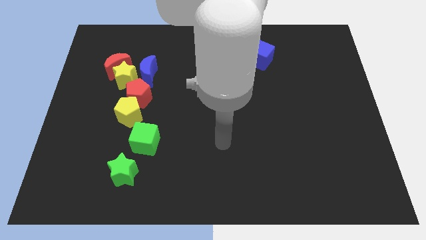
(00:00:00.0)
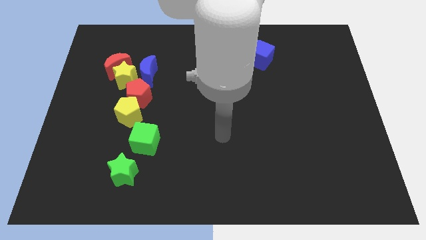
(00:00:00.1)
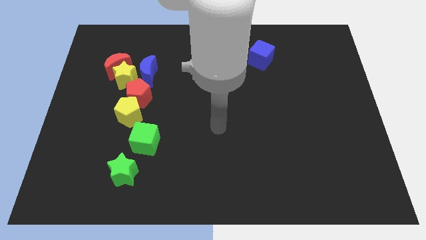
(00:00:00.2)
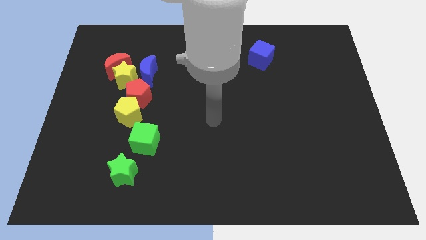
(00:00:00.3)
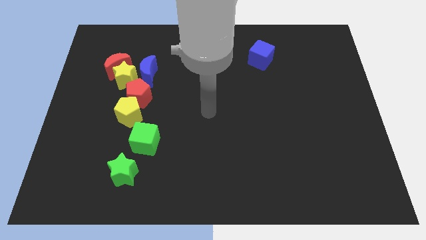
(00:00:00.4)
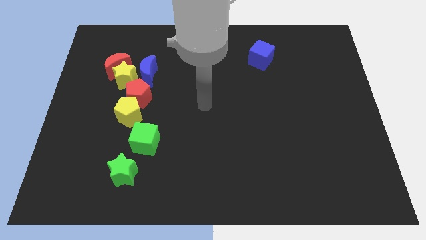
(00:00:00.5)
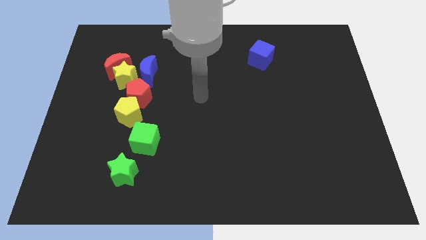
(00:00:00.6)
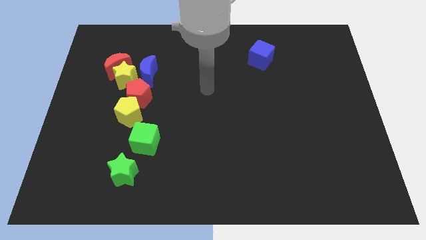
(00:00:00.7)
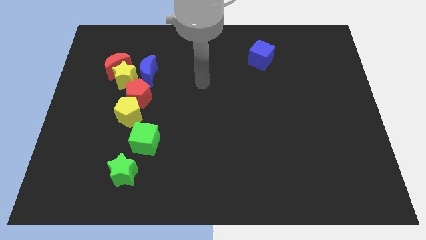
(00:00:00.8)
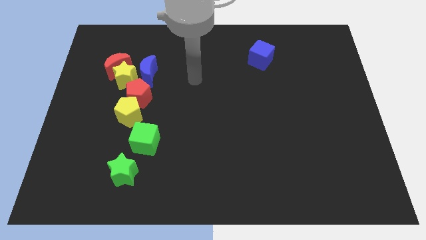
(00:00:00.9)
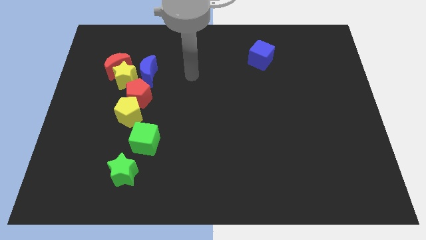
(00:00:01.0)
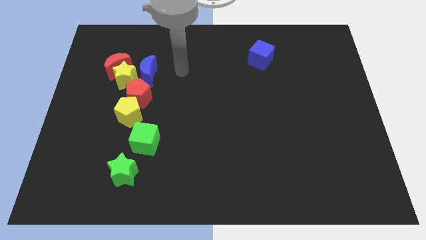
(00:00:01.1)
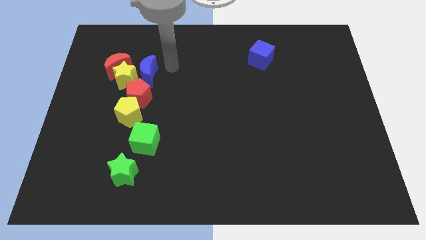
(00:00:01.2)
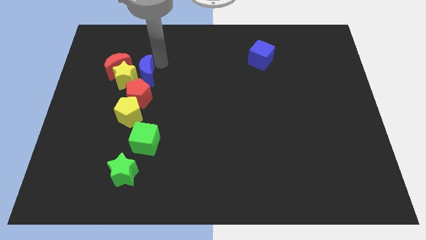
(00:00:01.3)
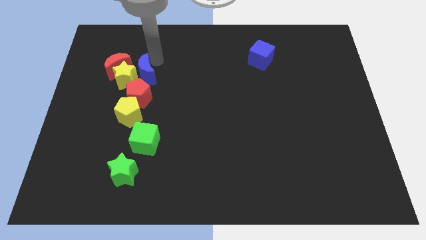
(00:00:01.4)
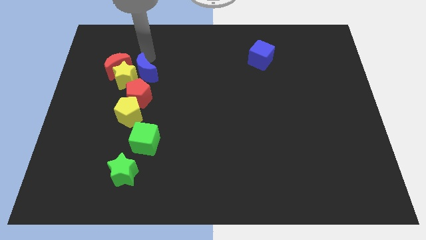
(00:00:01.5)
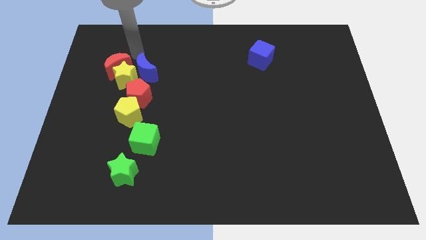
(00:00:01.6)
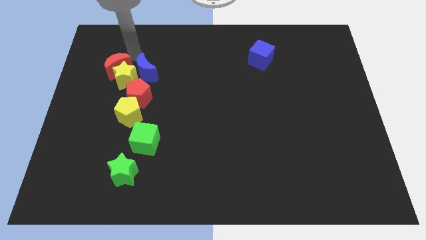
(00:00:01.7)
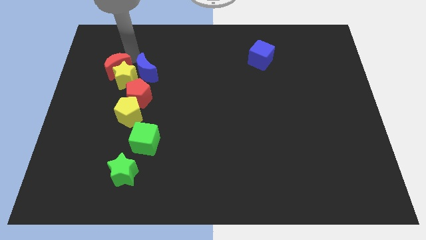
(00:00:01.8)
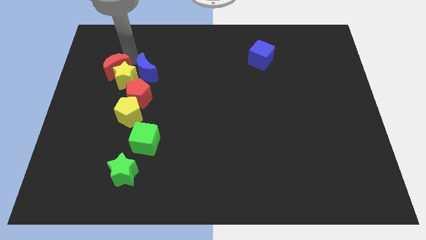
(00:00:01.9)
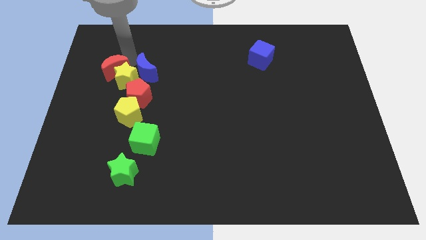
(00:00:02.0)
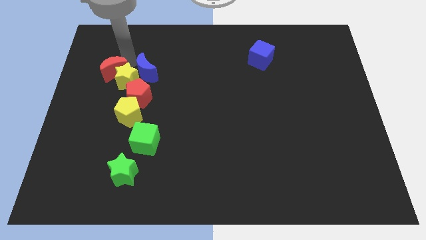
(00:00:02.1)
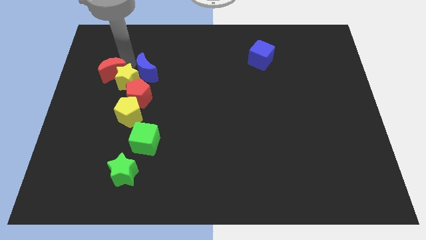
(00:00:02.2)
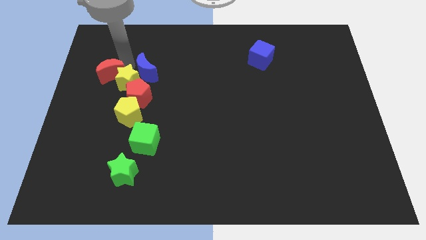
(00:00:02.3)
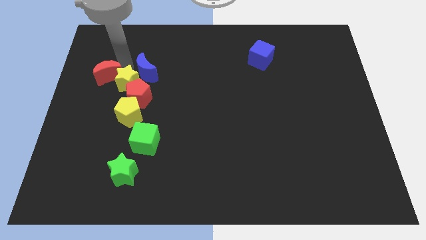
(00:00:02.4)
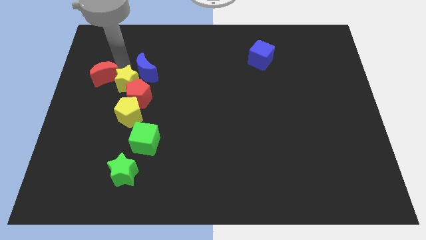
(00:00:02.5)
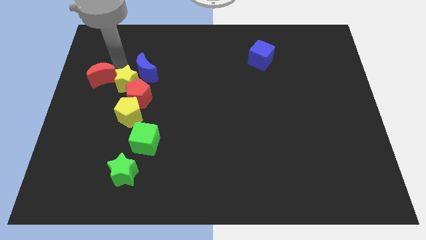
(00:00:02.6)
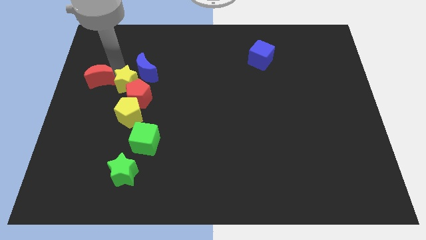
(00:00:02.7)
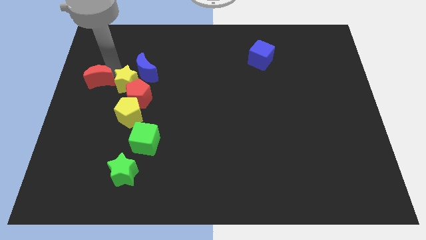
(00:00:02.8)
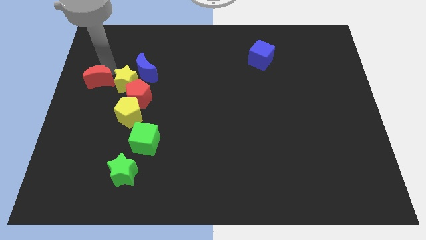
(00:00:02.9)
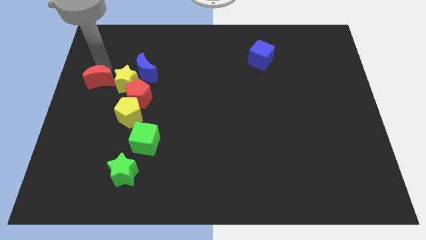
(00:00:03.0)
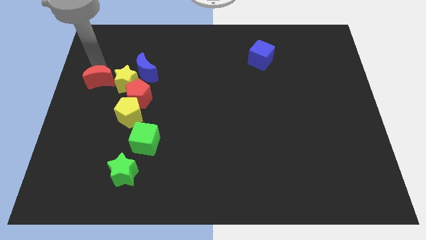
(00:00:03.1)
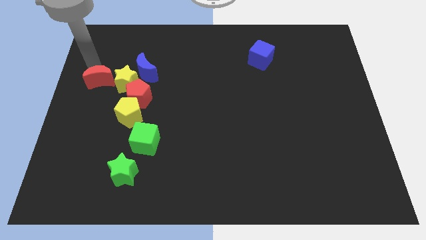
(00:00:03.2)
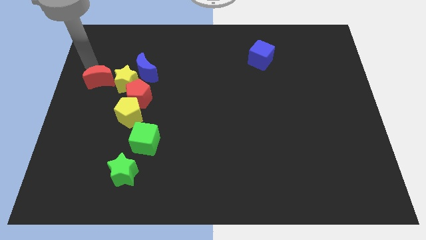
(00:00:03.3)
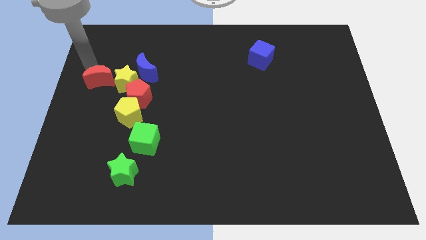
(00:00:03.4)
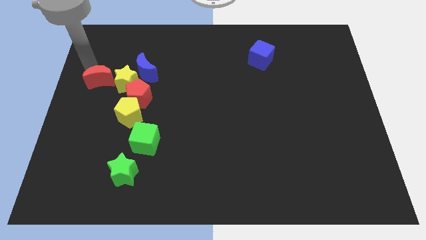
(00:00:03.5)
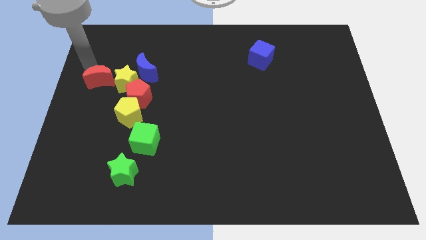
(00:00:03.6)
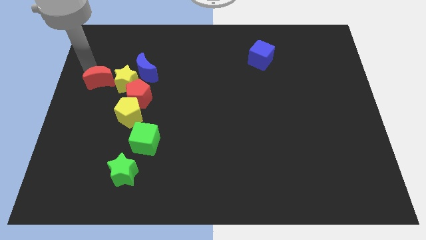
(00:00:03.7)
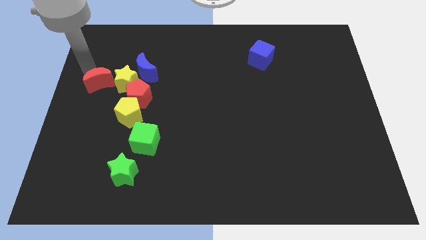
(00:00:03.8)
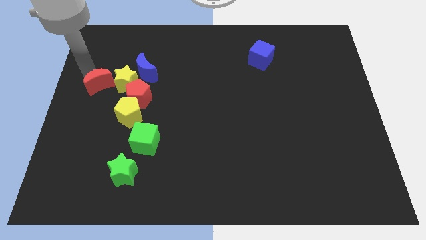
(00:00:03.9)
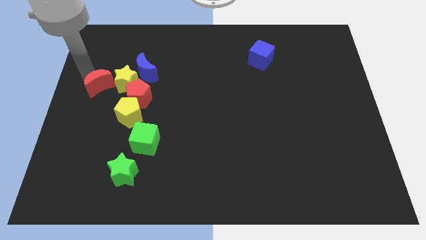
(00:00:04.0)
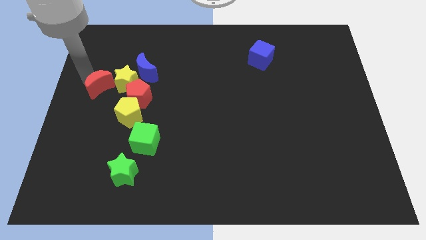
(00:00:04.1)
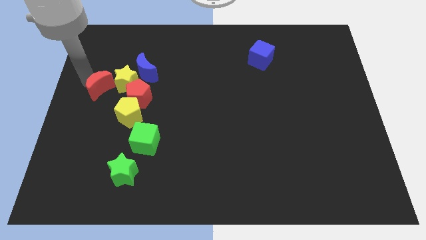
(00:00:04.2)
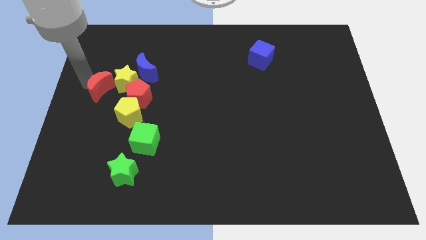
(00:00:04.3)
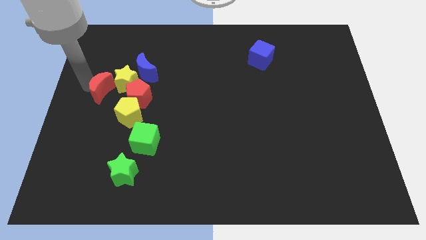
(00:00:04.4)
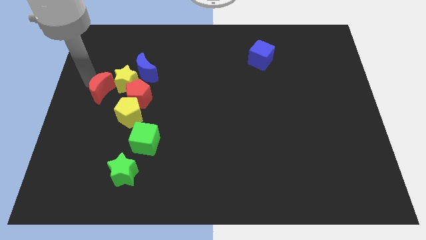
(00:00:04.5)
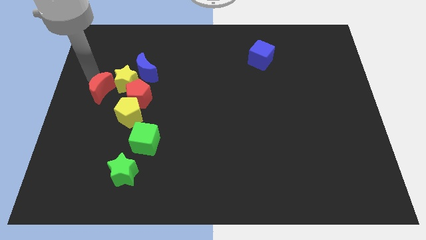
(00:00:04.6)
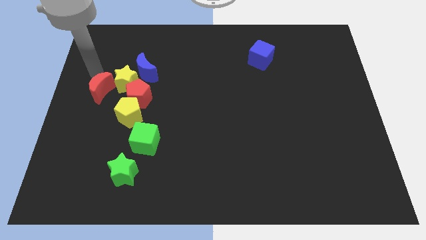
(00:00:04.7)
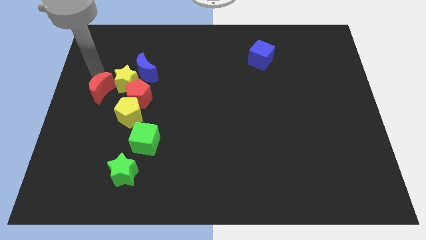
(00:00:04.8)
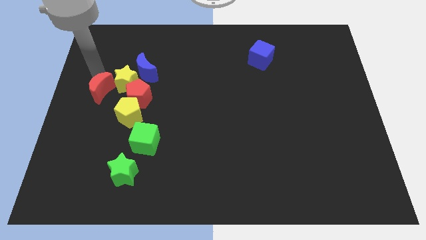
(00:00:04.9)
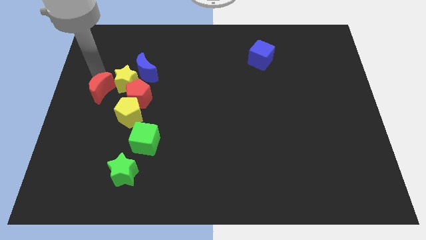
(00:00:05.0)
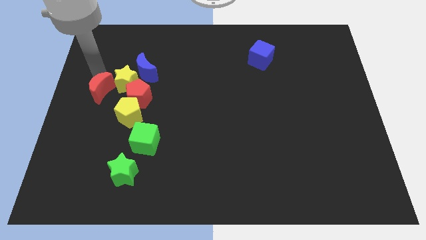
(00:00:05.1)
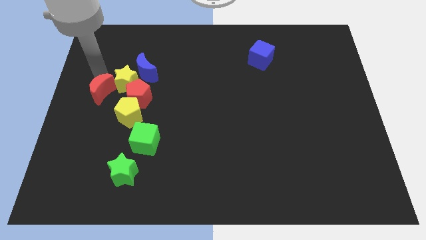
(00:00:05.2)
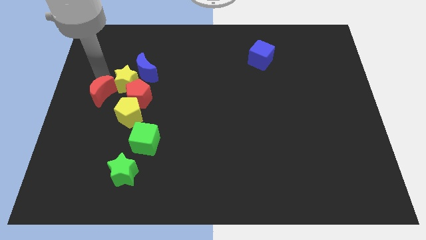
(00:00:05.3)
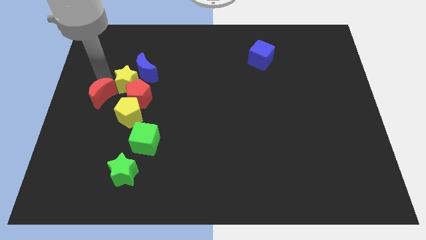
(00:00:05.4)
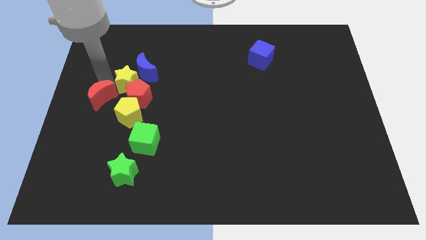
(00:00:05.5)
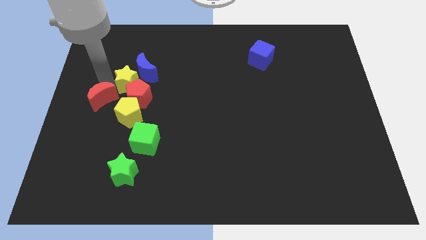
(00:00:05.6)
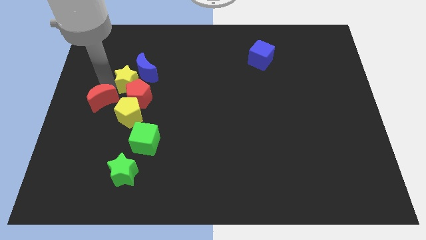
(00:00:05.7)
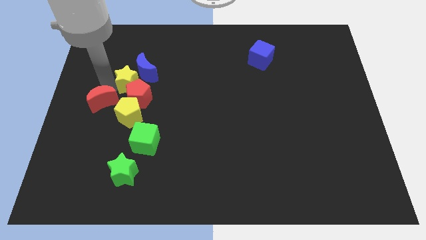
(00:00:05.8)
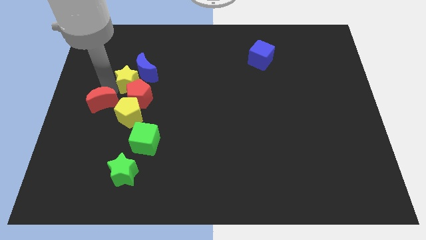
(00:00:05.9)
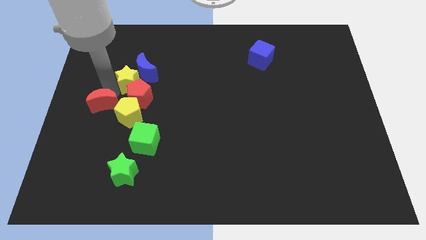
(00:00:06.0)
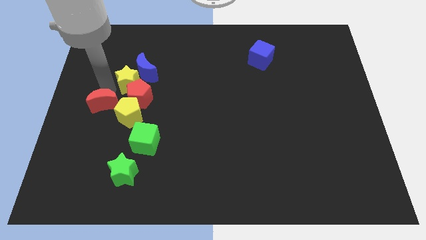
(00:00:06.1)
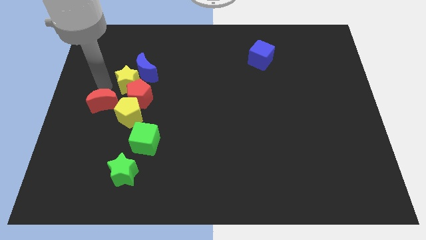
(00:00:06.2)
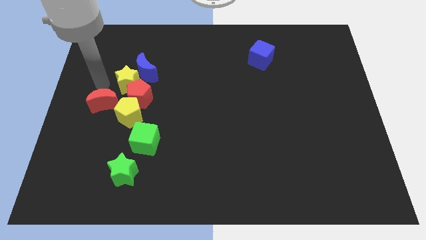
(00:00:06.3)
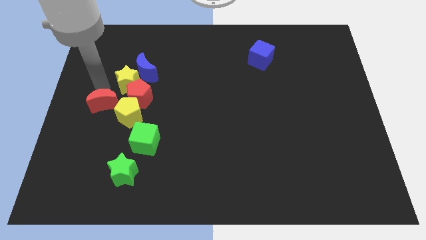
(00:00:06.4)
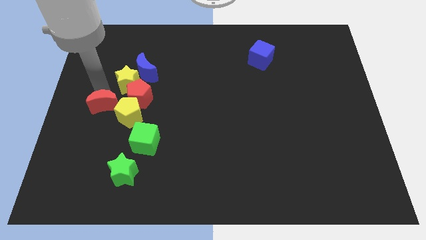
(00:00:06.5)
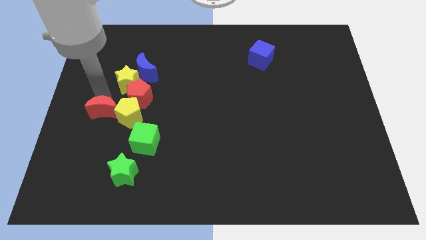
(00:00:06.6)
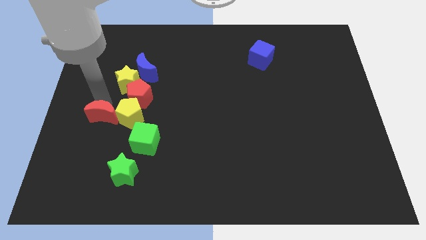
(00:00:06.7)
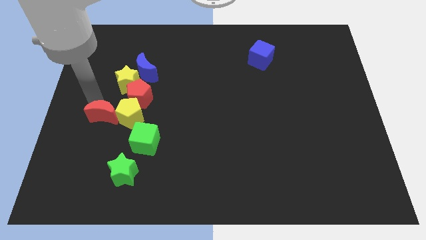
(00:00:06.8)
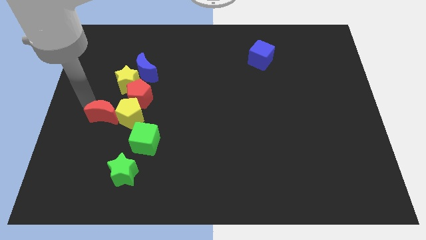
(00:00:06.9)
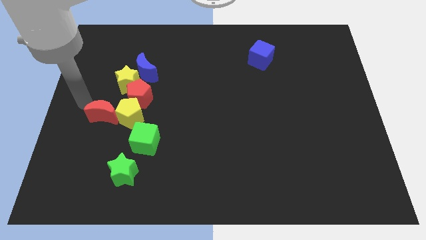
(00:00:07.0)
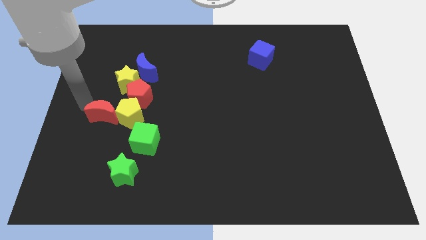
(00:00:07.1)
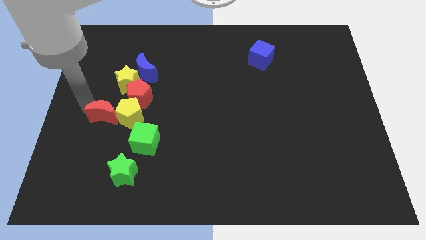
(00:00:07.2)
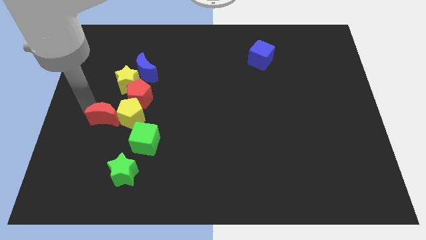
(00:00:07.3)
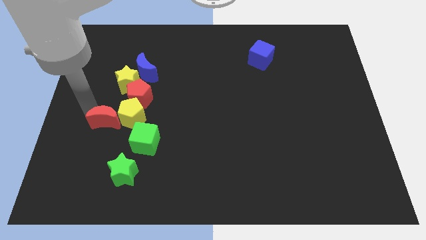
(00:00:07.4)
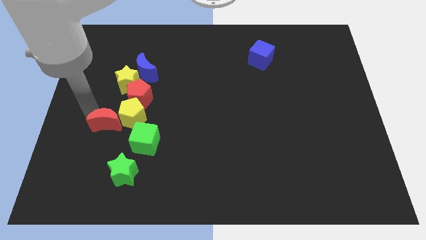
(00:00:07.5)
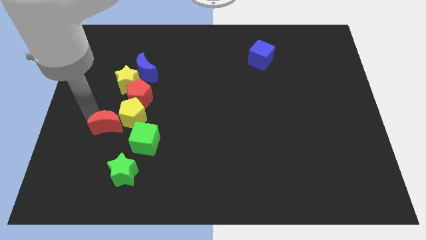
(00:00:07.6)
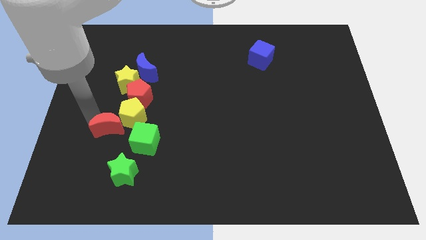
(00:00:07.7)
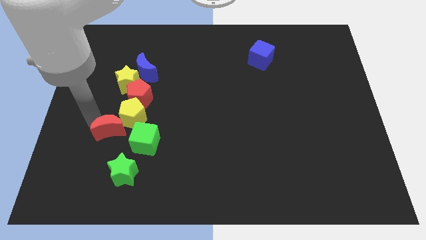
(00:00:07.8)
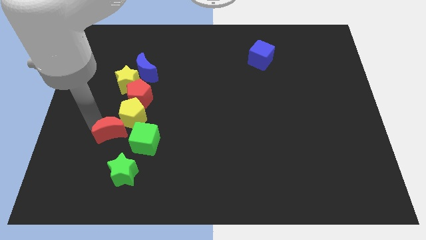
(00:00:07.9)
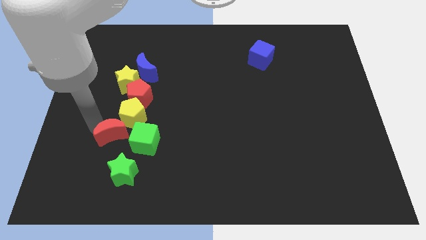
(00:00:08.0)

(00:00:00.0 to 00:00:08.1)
put the red moon to the bottom side of the red pentagon
